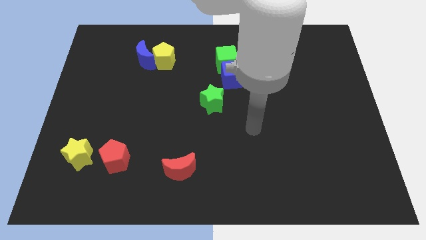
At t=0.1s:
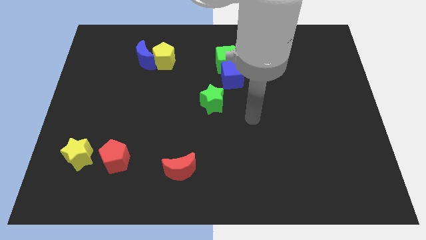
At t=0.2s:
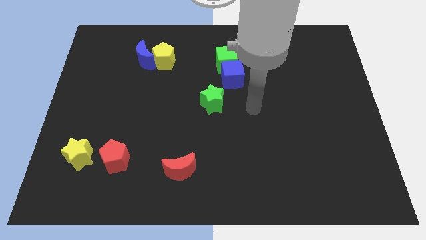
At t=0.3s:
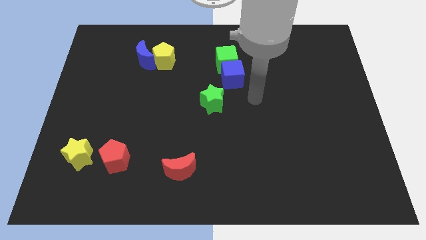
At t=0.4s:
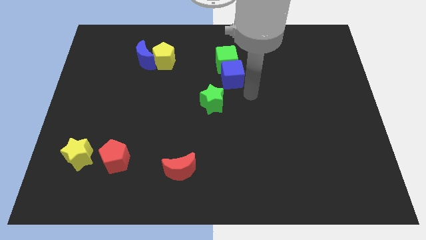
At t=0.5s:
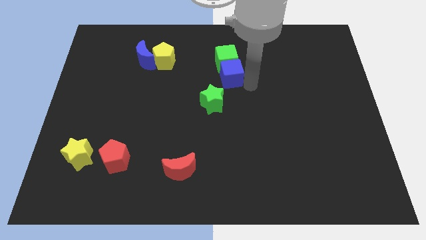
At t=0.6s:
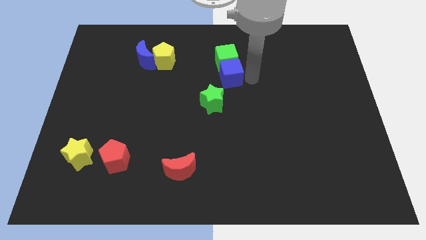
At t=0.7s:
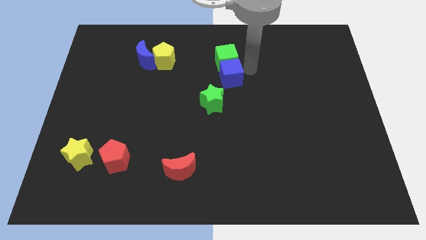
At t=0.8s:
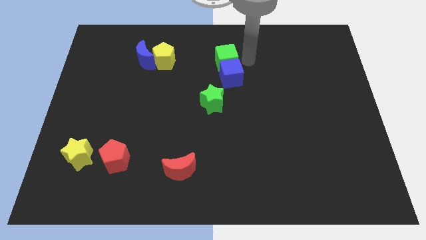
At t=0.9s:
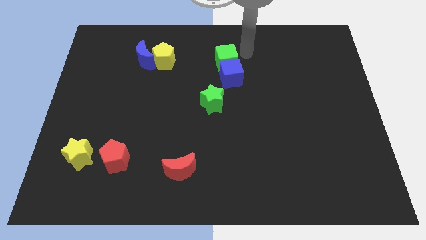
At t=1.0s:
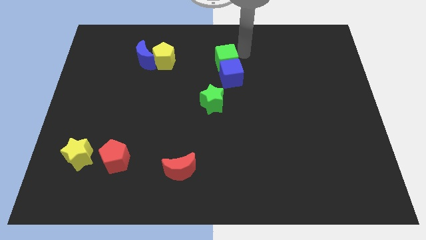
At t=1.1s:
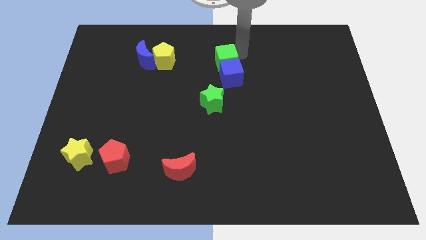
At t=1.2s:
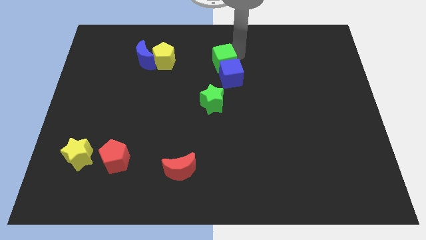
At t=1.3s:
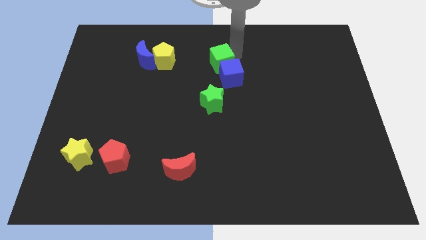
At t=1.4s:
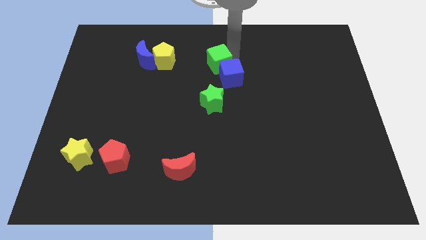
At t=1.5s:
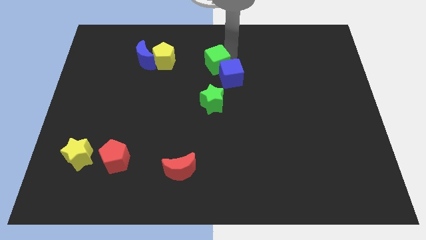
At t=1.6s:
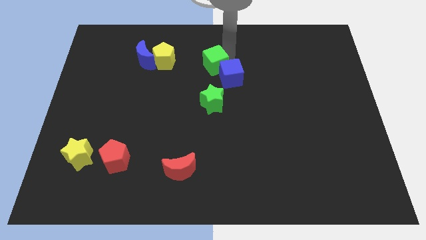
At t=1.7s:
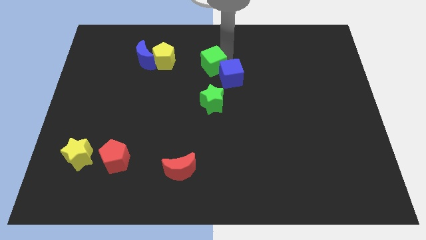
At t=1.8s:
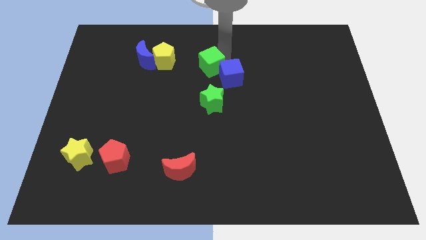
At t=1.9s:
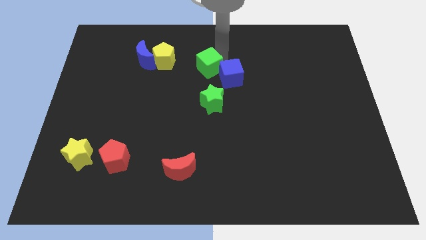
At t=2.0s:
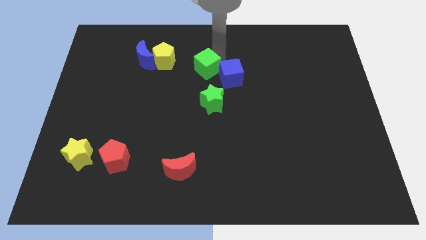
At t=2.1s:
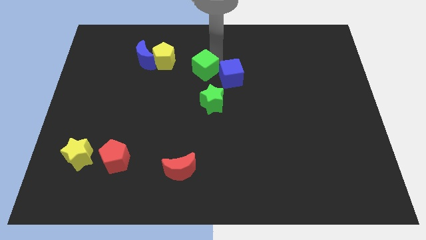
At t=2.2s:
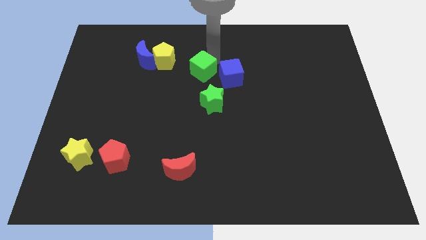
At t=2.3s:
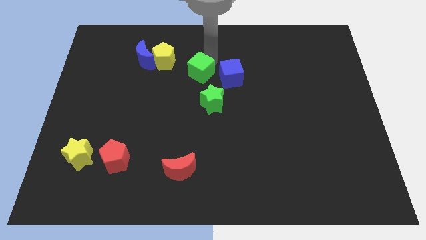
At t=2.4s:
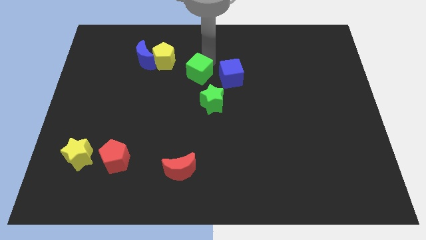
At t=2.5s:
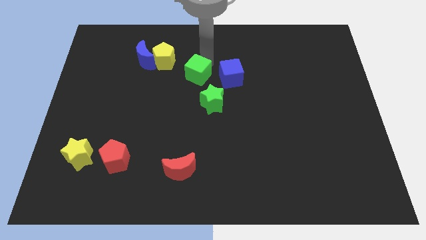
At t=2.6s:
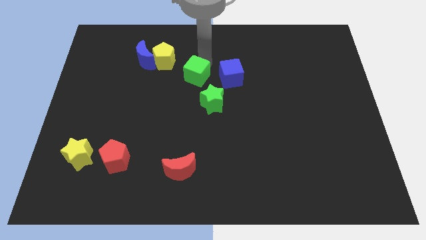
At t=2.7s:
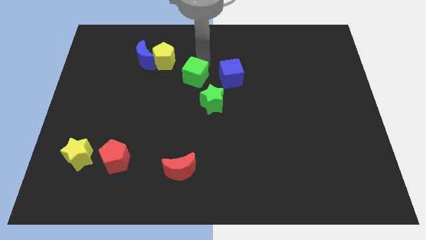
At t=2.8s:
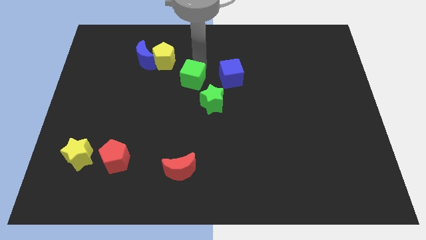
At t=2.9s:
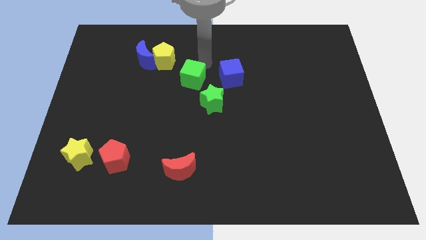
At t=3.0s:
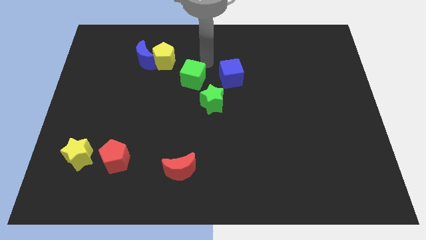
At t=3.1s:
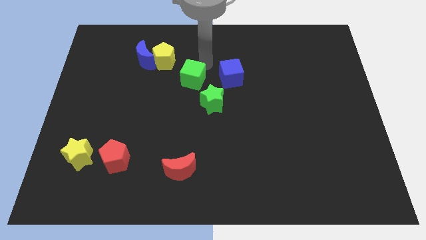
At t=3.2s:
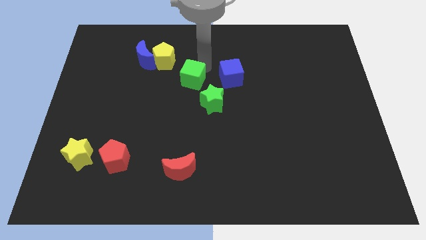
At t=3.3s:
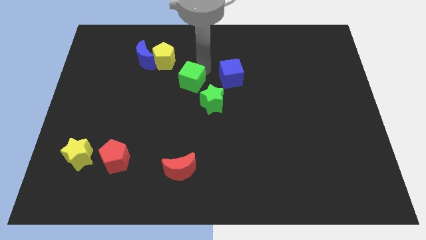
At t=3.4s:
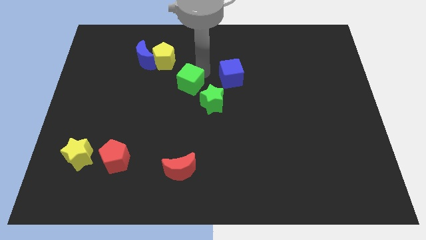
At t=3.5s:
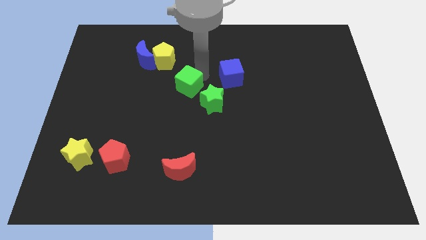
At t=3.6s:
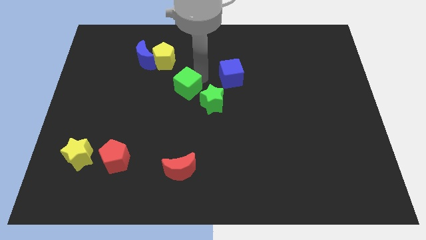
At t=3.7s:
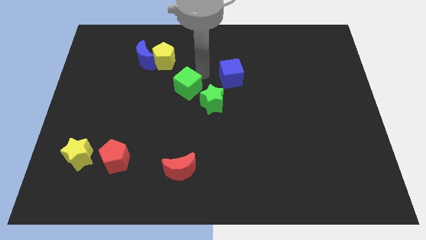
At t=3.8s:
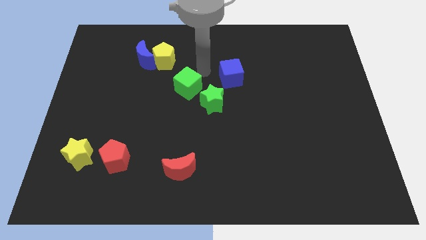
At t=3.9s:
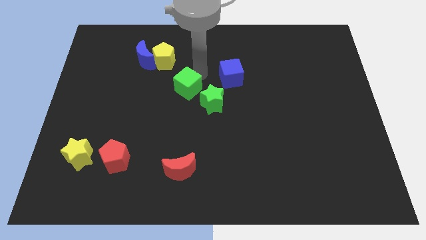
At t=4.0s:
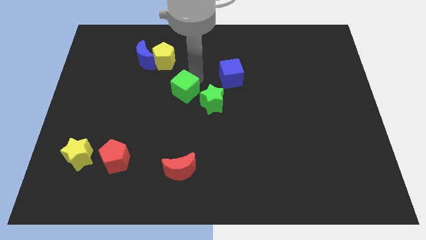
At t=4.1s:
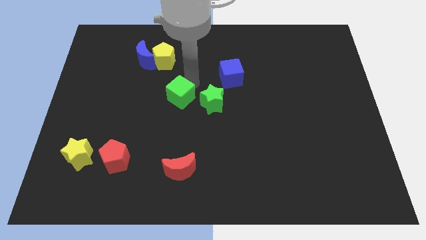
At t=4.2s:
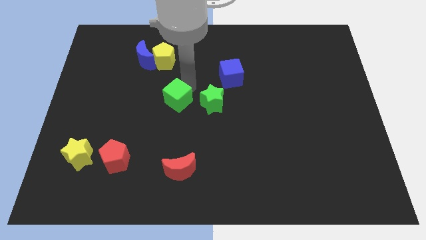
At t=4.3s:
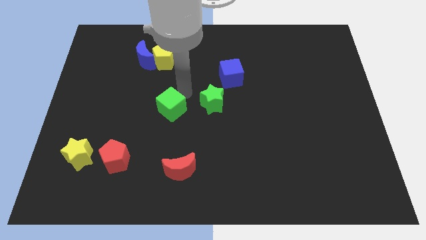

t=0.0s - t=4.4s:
push the green cube down and left diagonally

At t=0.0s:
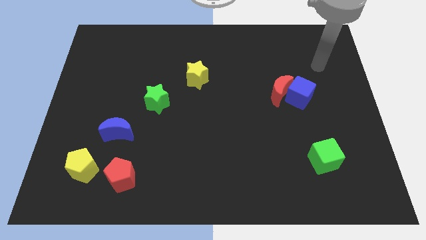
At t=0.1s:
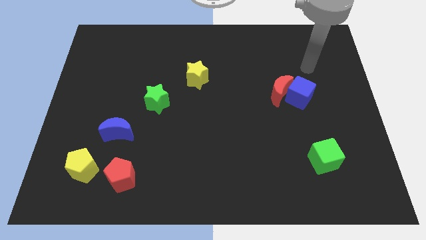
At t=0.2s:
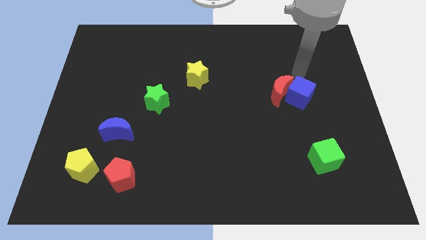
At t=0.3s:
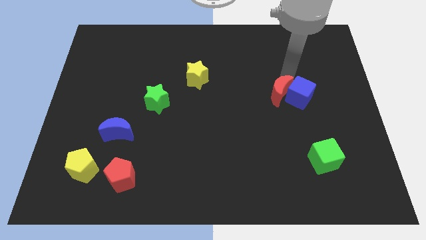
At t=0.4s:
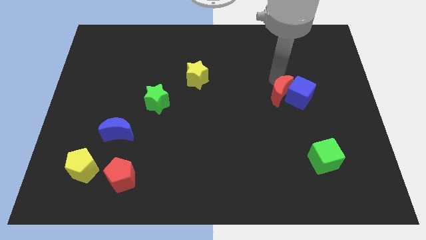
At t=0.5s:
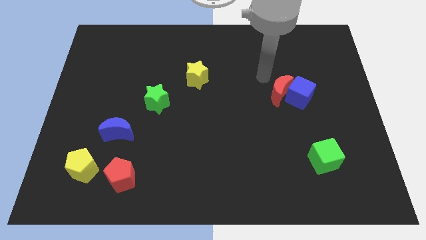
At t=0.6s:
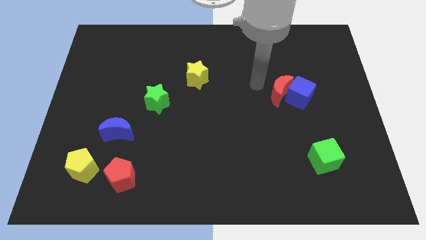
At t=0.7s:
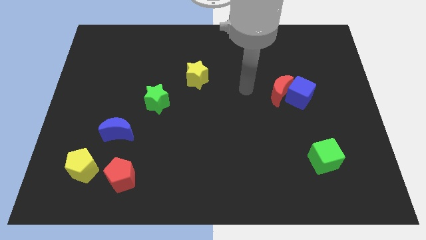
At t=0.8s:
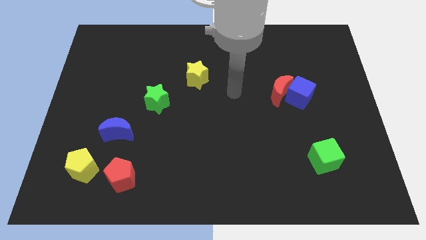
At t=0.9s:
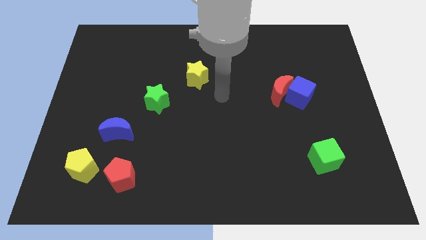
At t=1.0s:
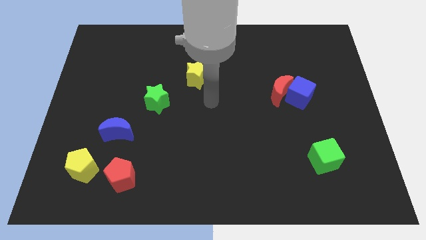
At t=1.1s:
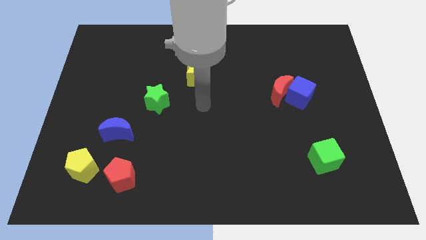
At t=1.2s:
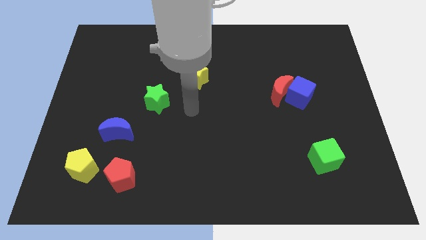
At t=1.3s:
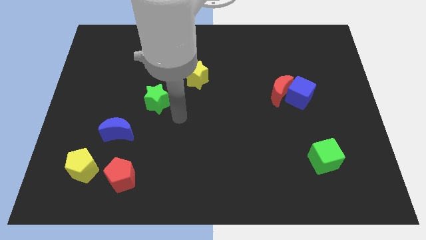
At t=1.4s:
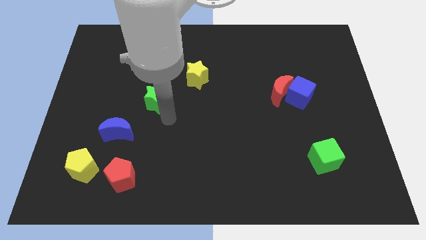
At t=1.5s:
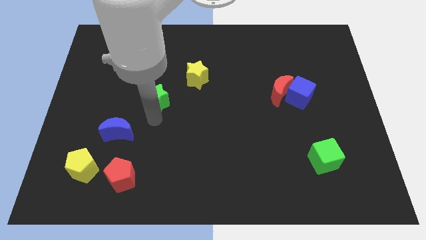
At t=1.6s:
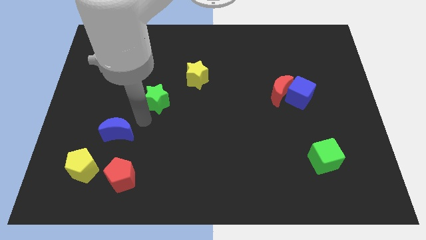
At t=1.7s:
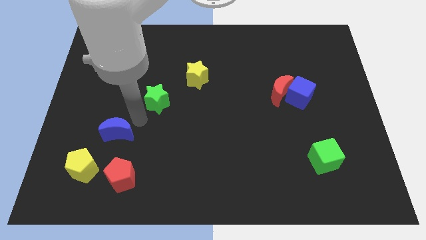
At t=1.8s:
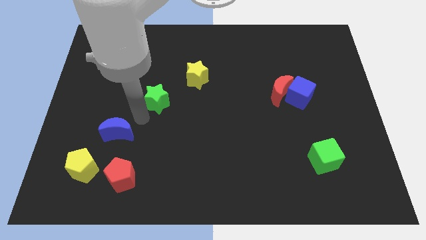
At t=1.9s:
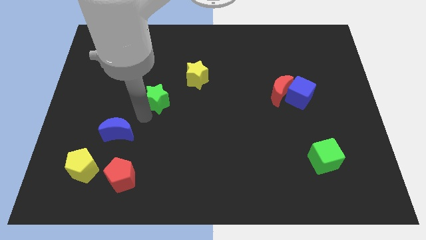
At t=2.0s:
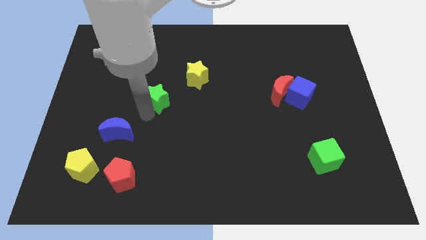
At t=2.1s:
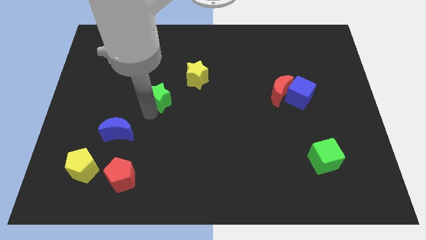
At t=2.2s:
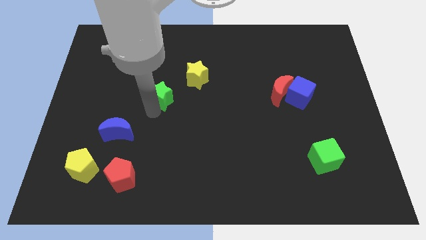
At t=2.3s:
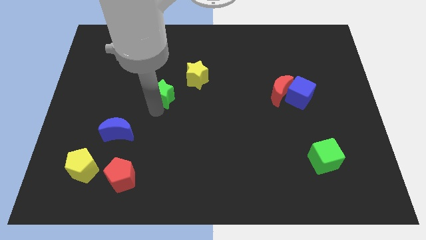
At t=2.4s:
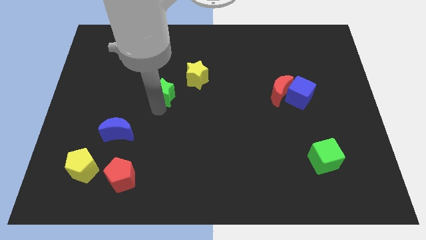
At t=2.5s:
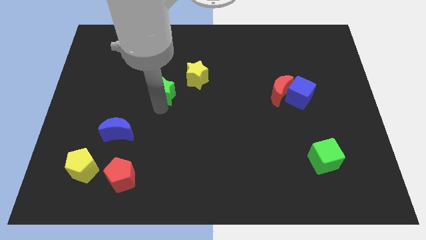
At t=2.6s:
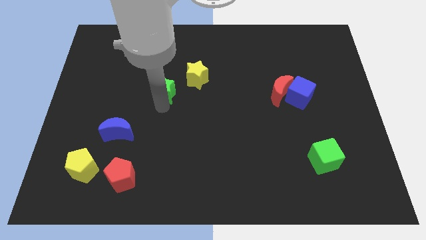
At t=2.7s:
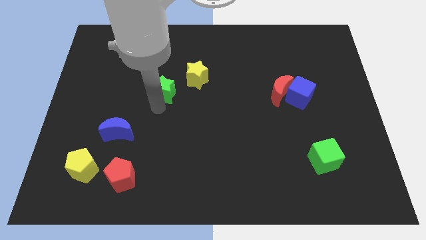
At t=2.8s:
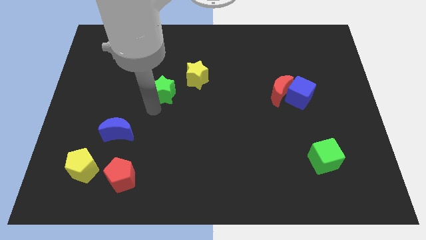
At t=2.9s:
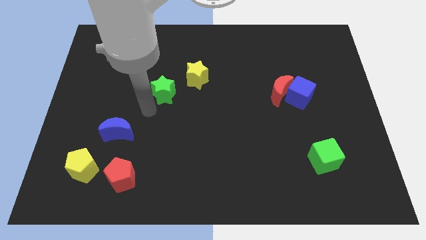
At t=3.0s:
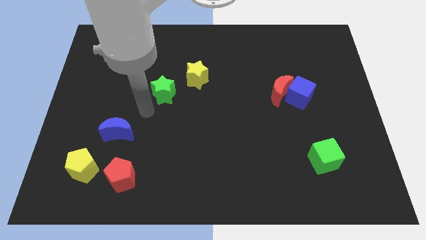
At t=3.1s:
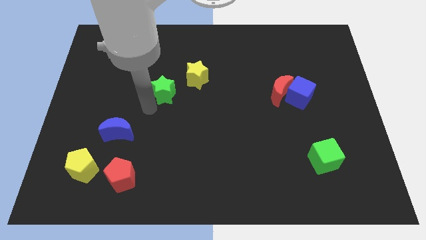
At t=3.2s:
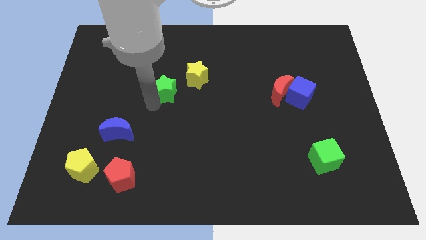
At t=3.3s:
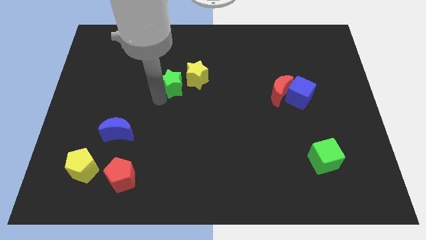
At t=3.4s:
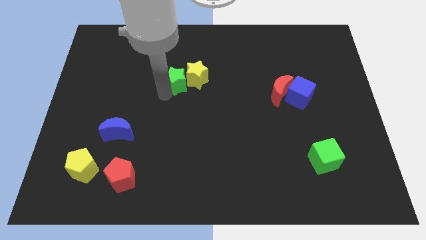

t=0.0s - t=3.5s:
push the green star a little up and then to the right

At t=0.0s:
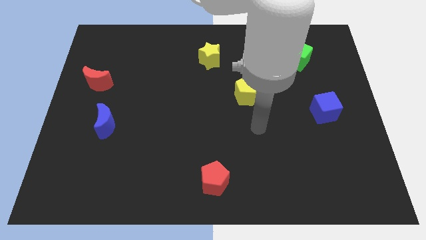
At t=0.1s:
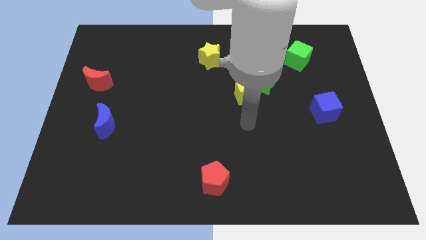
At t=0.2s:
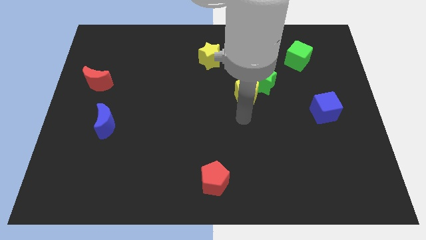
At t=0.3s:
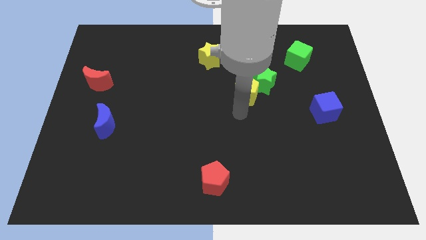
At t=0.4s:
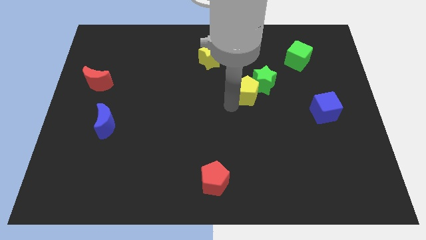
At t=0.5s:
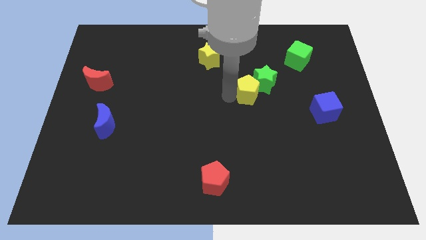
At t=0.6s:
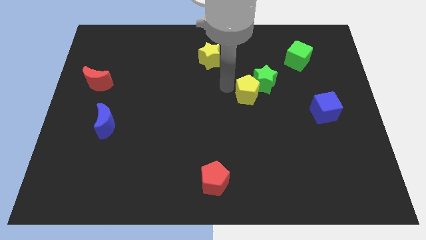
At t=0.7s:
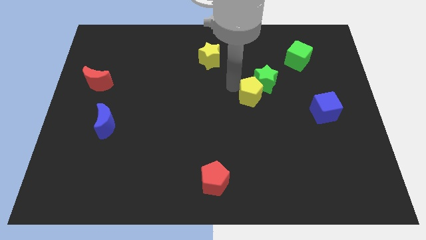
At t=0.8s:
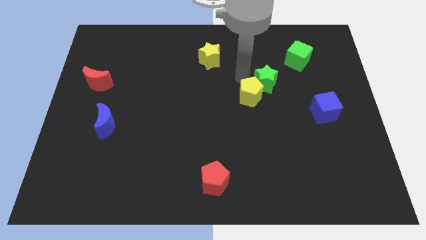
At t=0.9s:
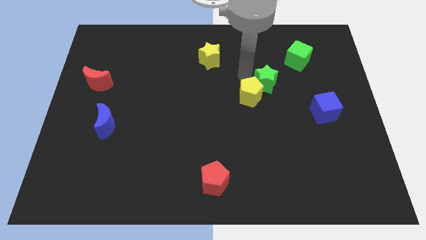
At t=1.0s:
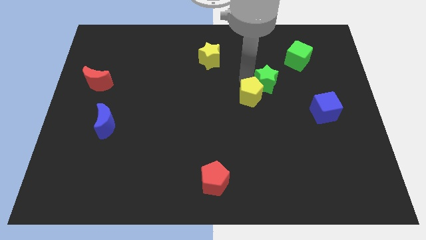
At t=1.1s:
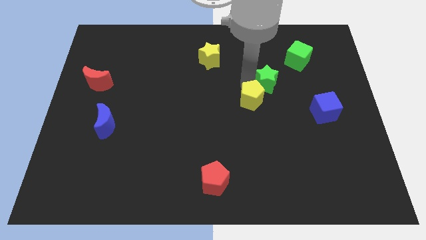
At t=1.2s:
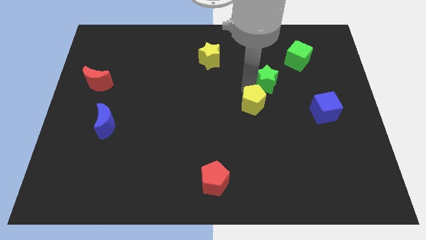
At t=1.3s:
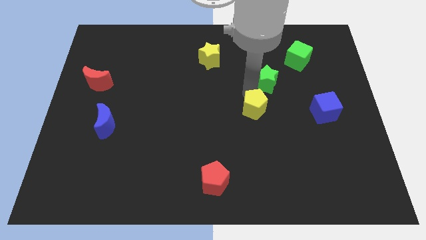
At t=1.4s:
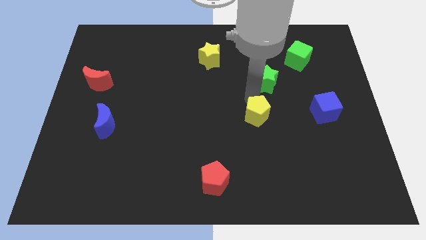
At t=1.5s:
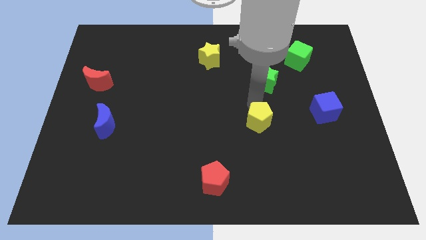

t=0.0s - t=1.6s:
move the yellow pentagon slightly down
